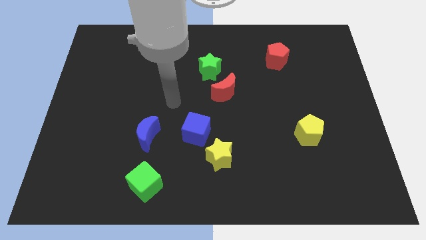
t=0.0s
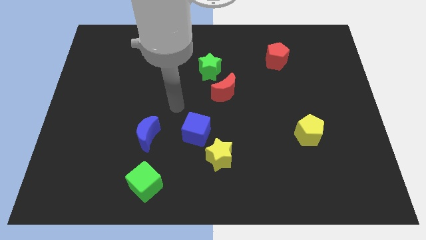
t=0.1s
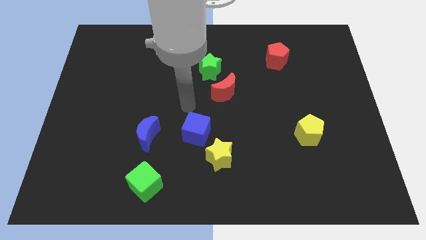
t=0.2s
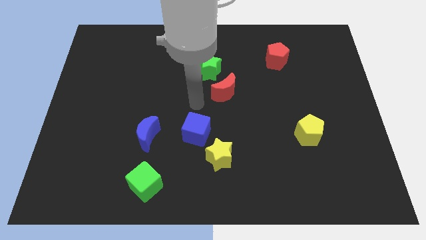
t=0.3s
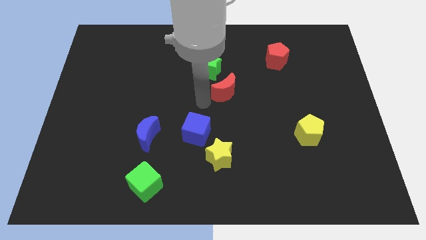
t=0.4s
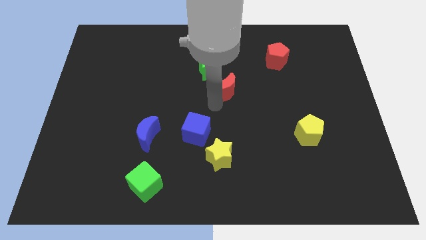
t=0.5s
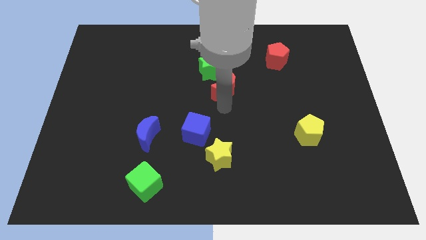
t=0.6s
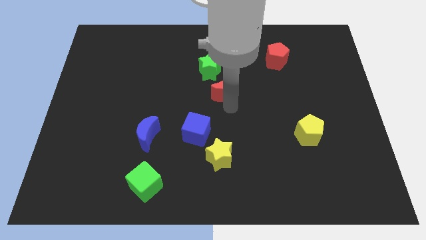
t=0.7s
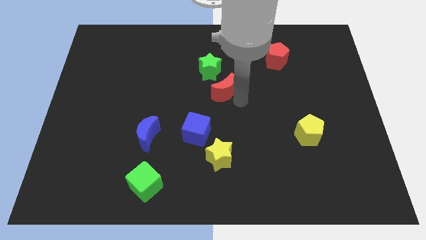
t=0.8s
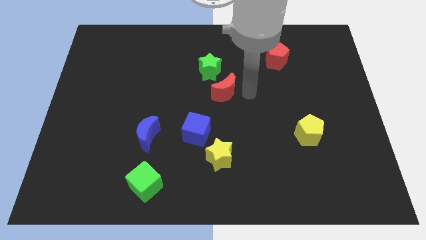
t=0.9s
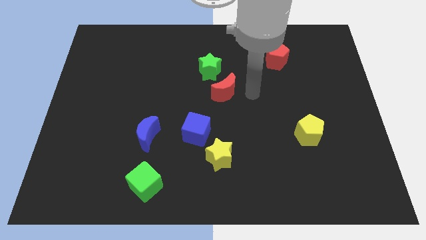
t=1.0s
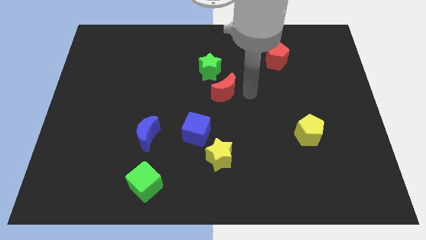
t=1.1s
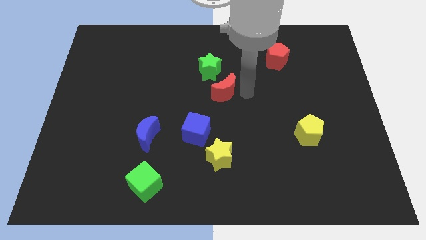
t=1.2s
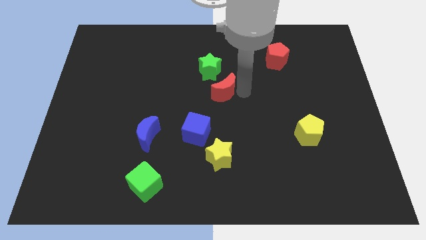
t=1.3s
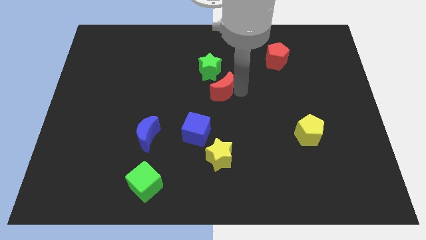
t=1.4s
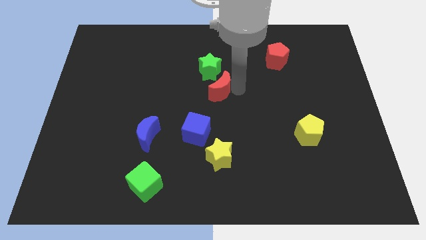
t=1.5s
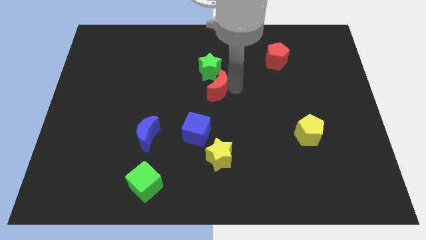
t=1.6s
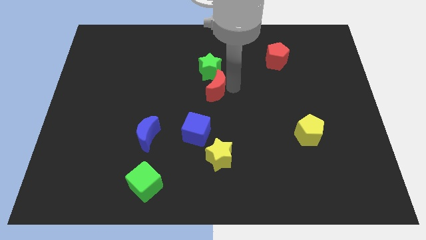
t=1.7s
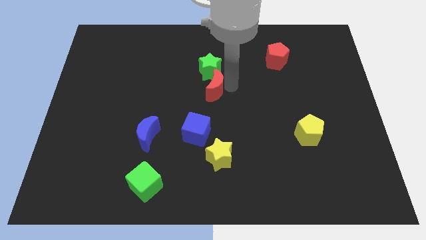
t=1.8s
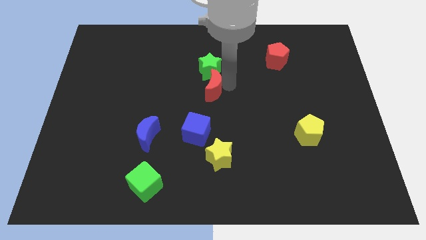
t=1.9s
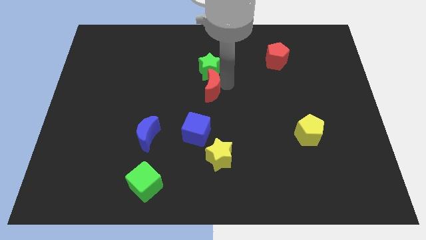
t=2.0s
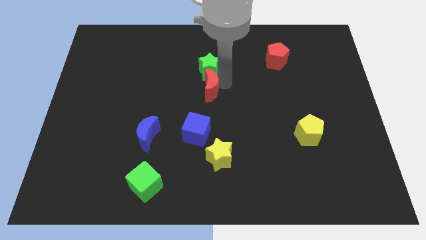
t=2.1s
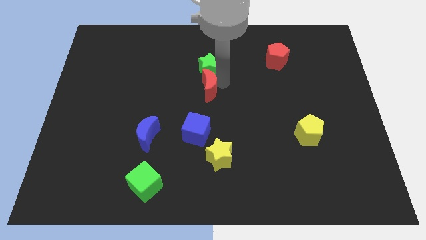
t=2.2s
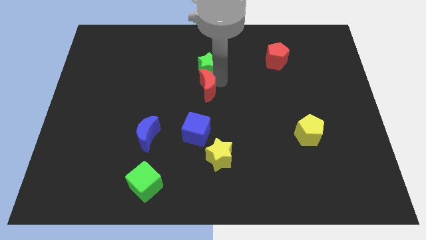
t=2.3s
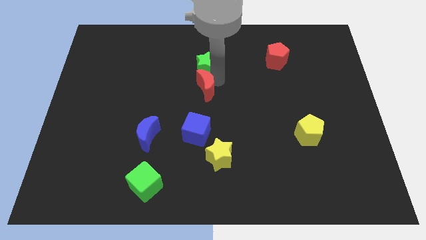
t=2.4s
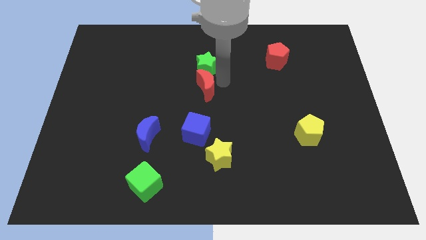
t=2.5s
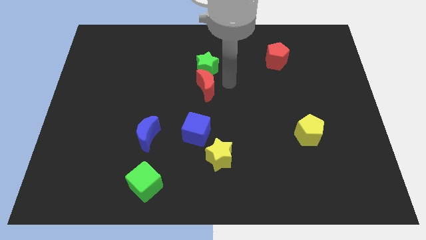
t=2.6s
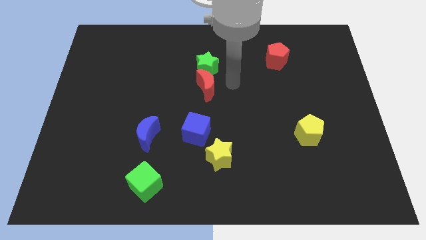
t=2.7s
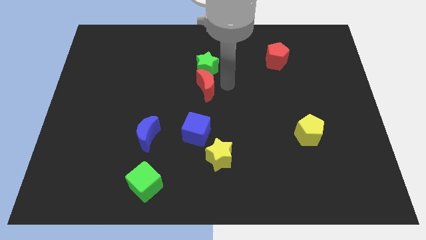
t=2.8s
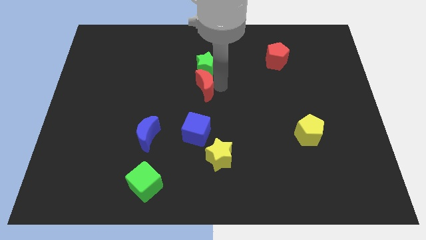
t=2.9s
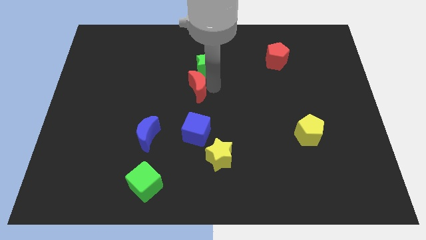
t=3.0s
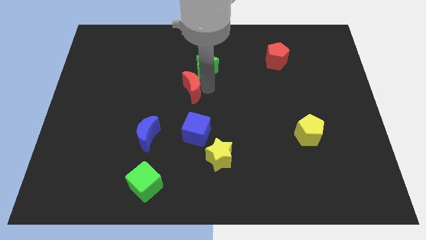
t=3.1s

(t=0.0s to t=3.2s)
slide the red moon a bit to the left

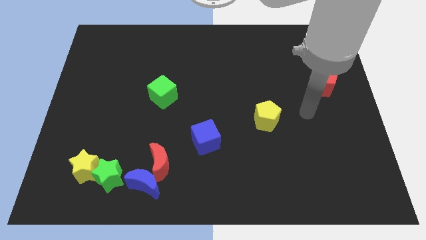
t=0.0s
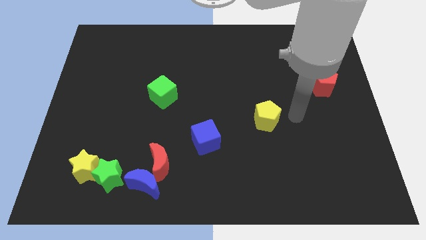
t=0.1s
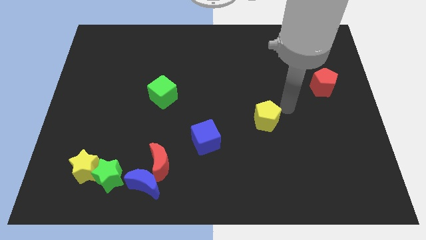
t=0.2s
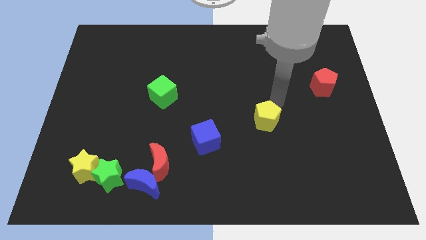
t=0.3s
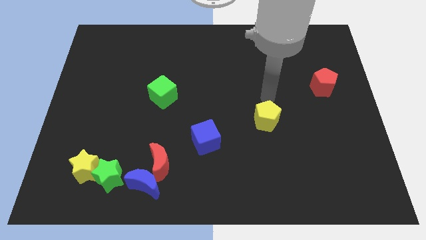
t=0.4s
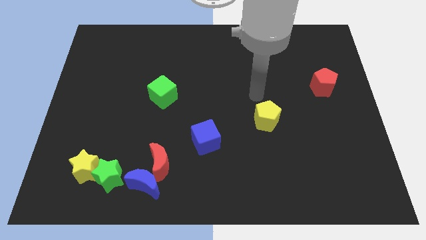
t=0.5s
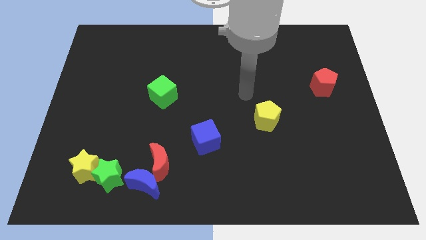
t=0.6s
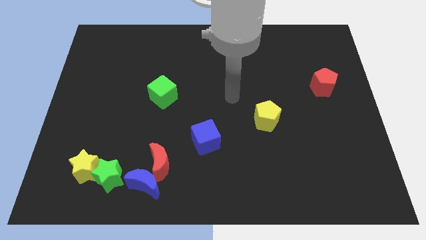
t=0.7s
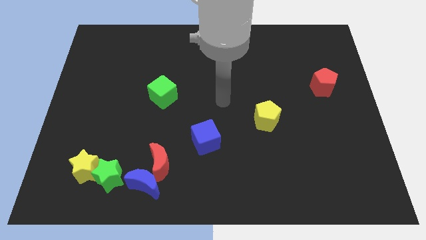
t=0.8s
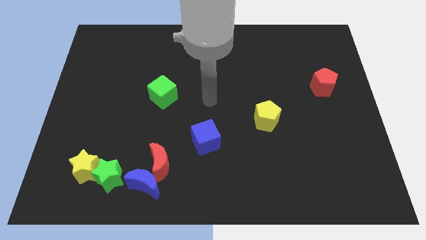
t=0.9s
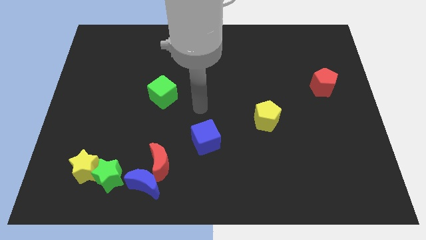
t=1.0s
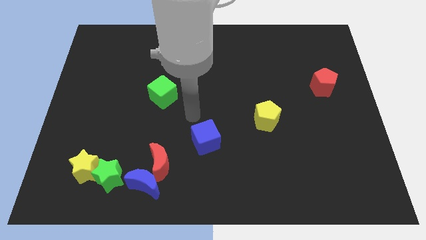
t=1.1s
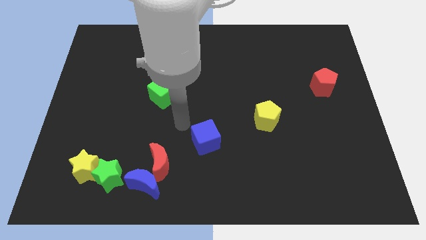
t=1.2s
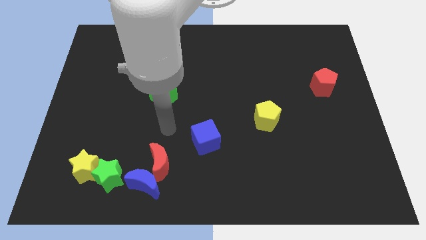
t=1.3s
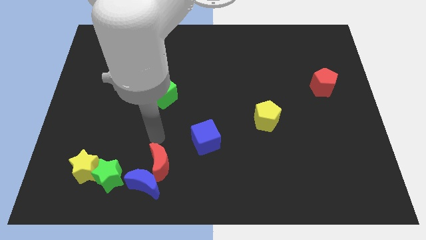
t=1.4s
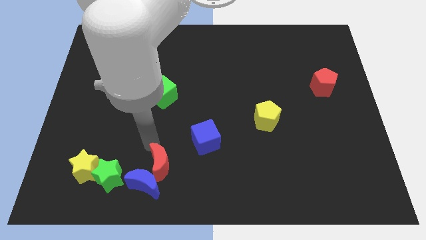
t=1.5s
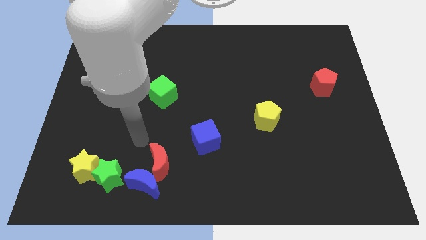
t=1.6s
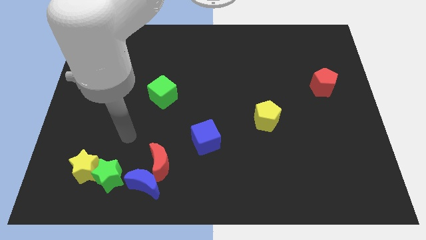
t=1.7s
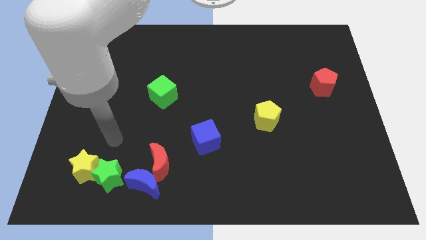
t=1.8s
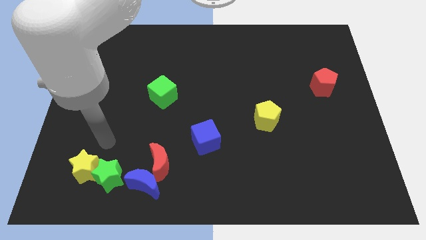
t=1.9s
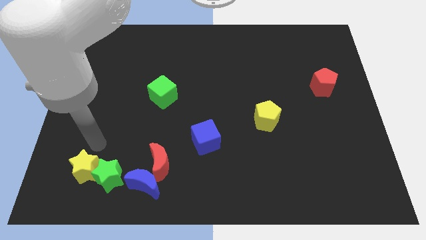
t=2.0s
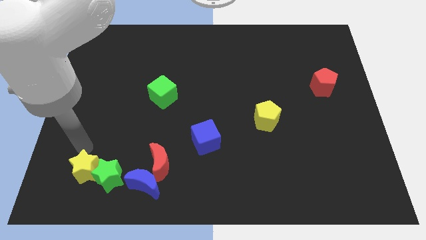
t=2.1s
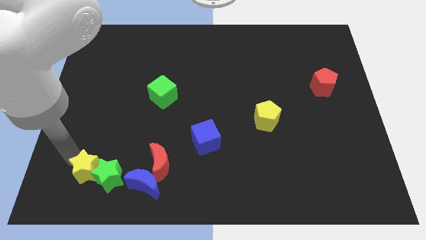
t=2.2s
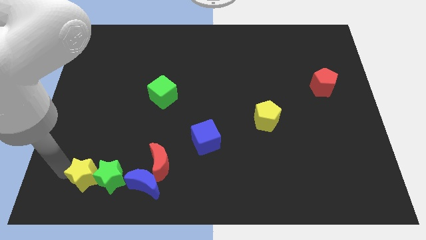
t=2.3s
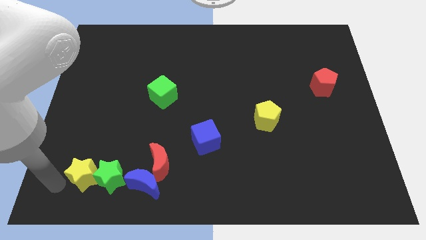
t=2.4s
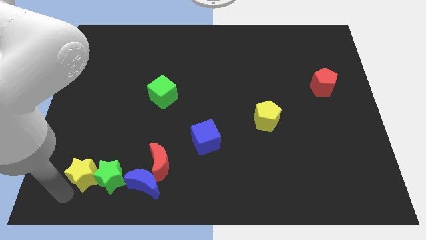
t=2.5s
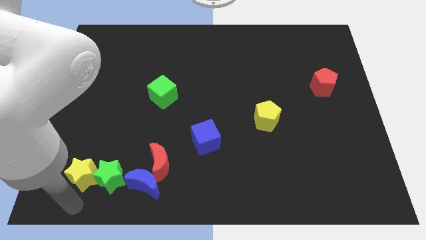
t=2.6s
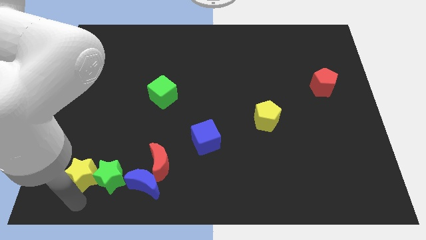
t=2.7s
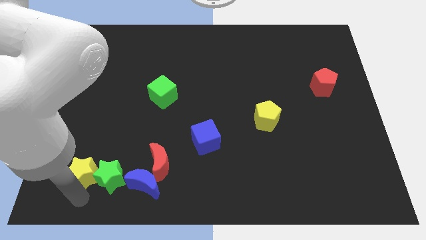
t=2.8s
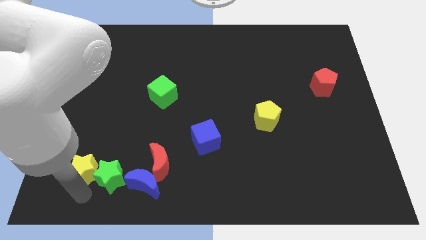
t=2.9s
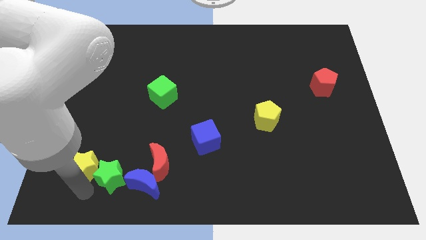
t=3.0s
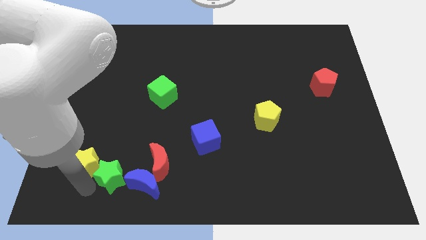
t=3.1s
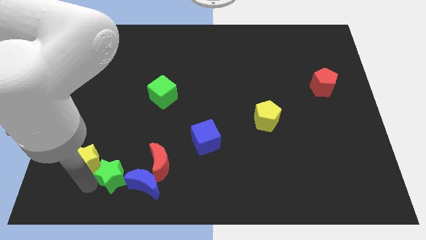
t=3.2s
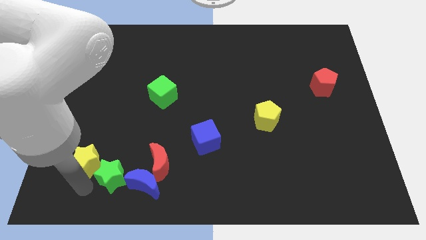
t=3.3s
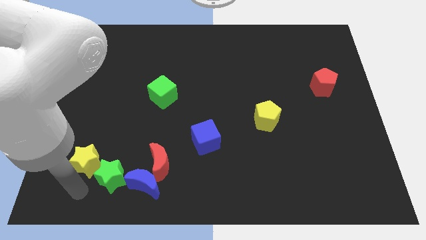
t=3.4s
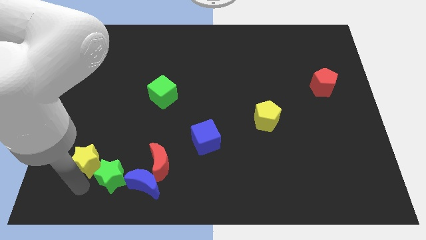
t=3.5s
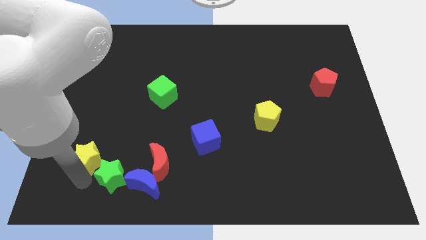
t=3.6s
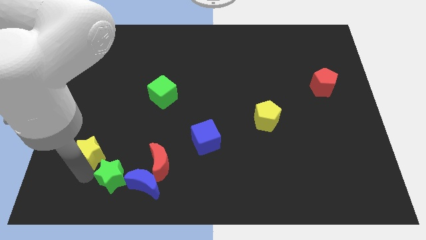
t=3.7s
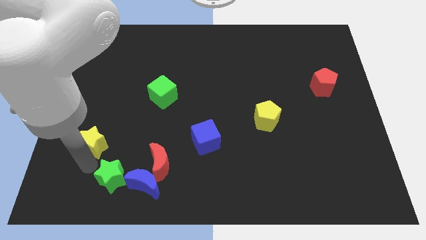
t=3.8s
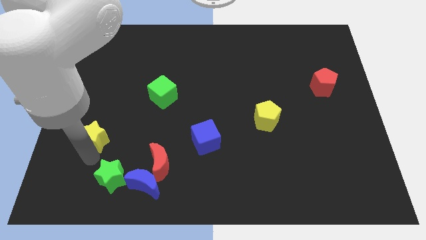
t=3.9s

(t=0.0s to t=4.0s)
push the yellow star up slightly

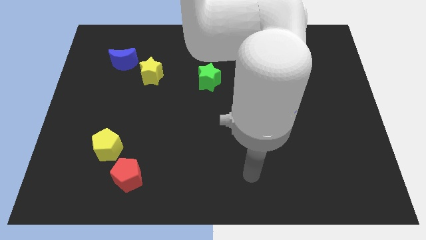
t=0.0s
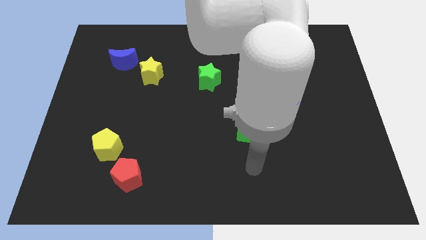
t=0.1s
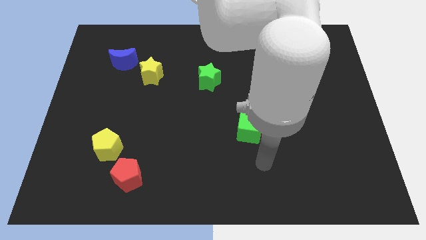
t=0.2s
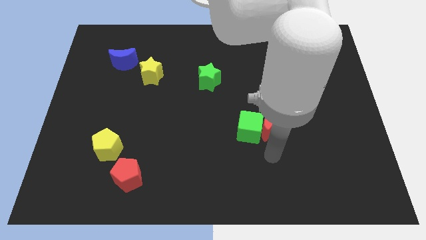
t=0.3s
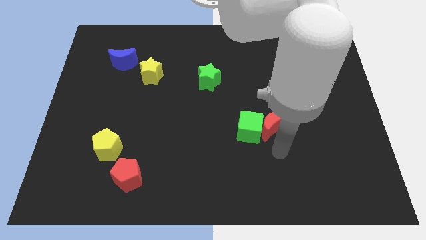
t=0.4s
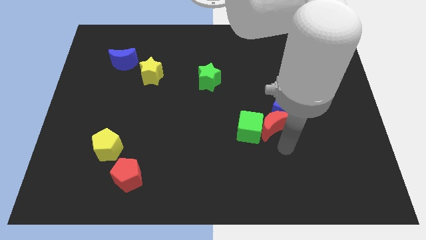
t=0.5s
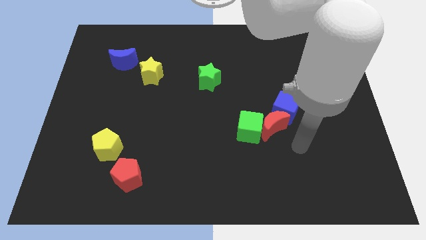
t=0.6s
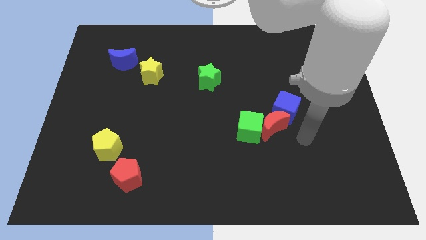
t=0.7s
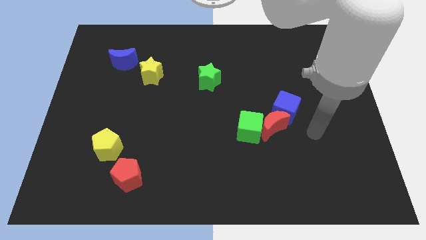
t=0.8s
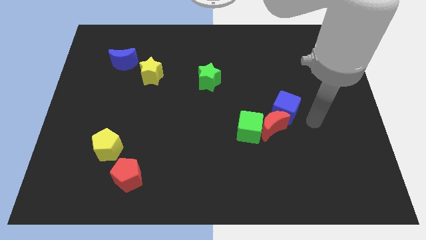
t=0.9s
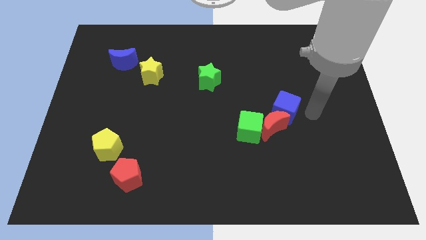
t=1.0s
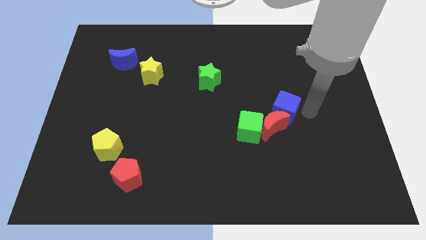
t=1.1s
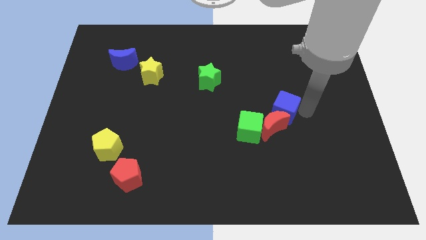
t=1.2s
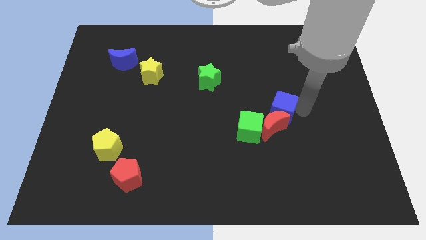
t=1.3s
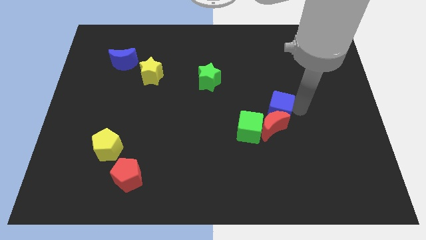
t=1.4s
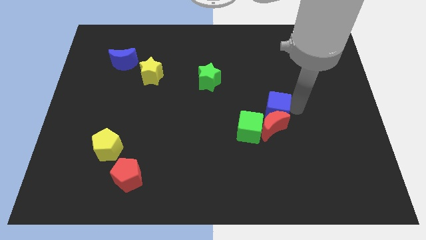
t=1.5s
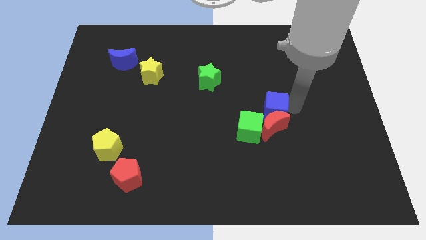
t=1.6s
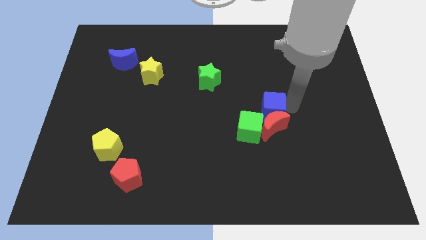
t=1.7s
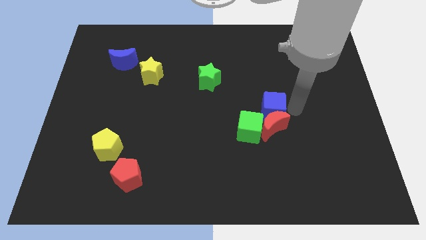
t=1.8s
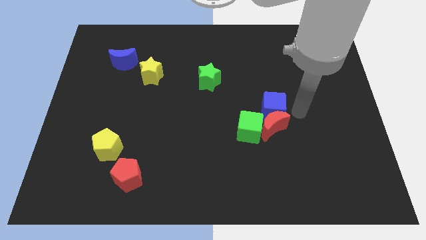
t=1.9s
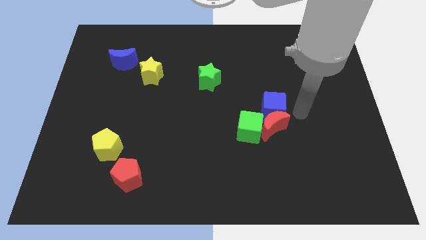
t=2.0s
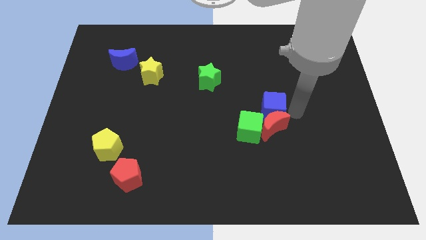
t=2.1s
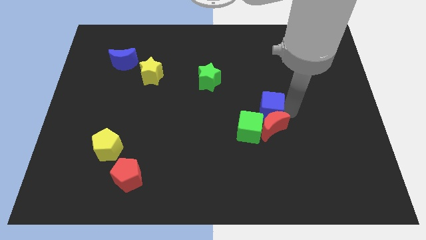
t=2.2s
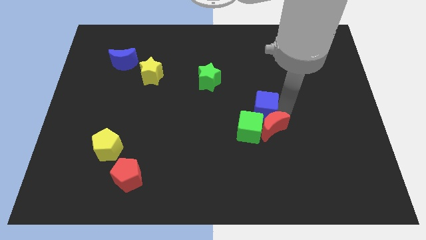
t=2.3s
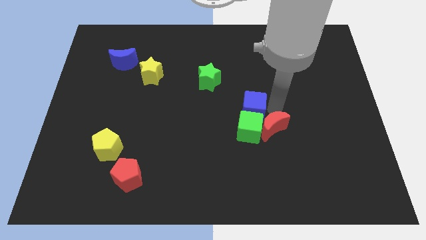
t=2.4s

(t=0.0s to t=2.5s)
slide the blue cube to the left a little bit
